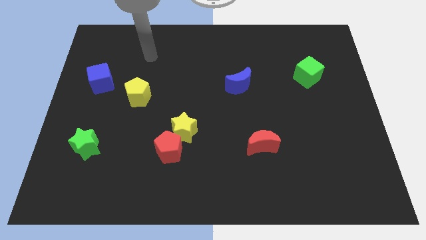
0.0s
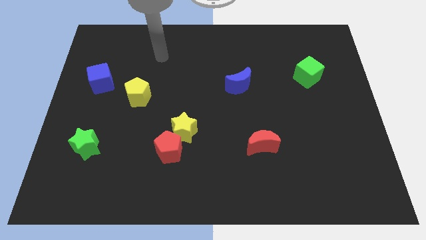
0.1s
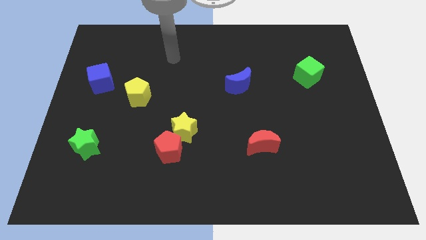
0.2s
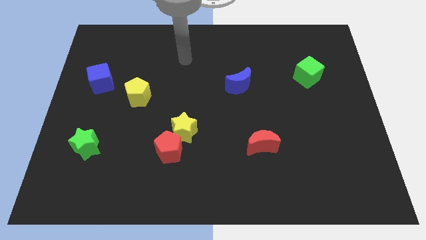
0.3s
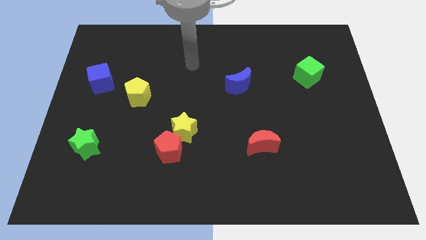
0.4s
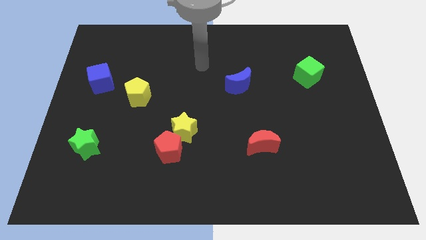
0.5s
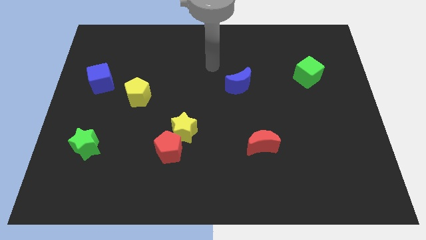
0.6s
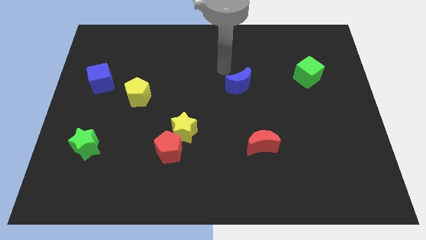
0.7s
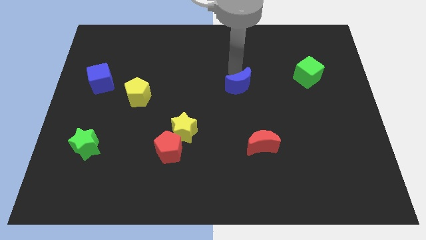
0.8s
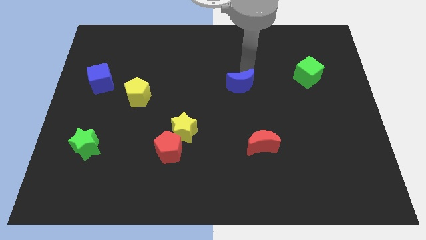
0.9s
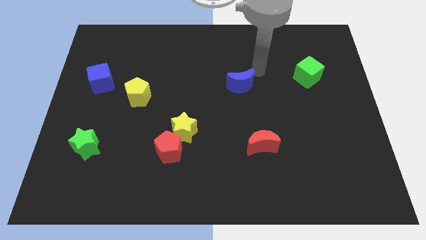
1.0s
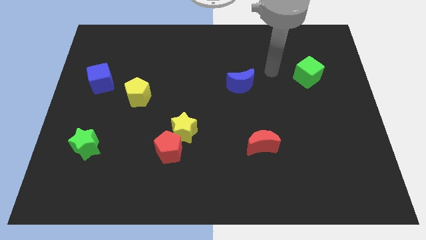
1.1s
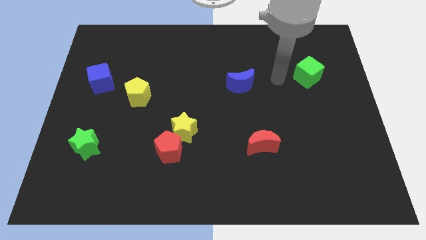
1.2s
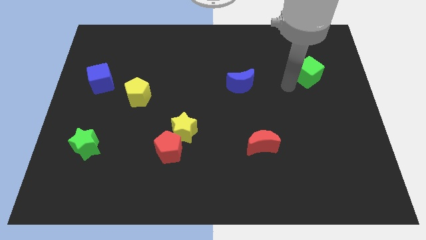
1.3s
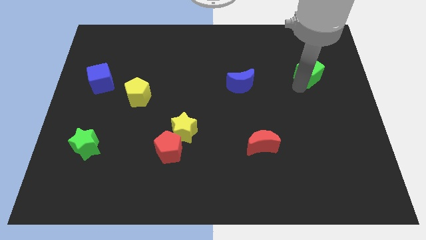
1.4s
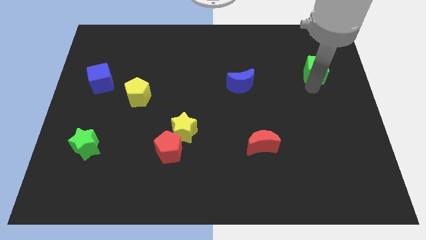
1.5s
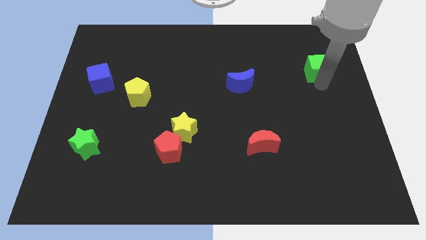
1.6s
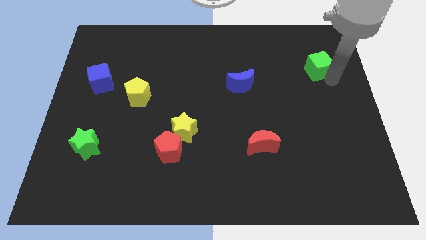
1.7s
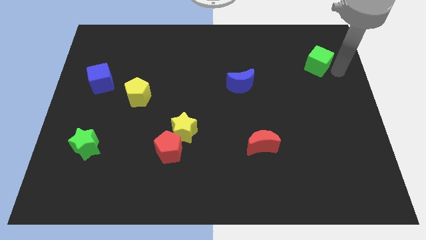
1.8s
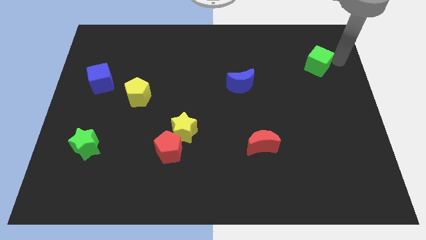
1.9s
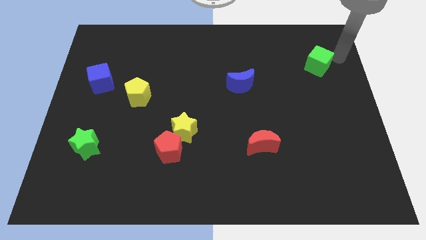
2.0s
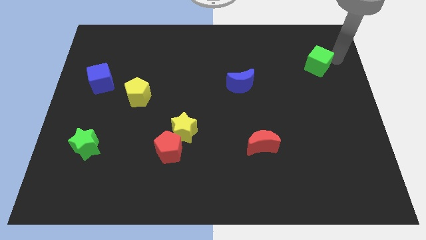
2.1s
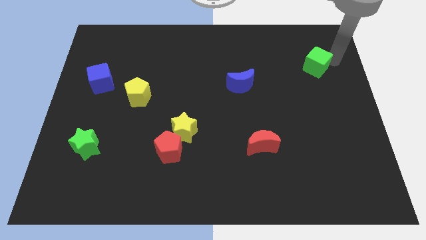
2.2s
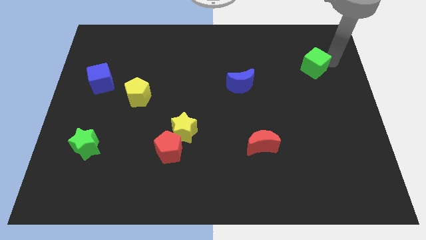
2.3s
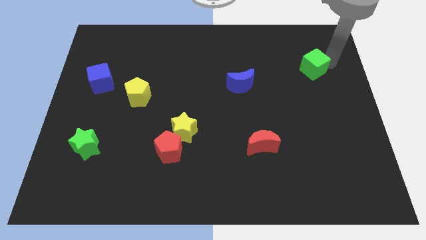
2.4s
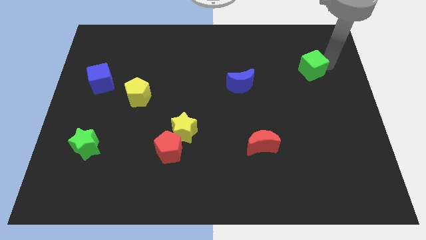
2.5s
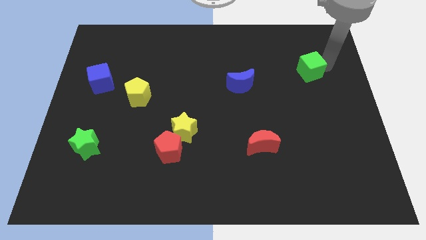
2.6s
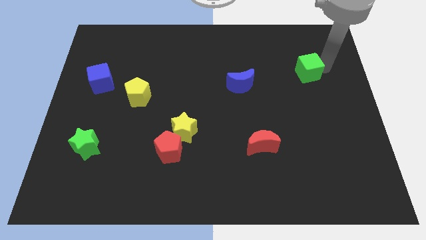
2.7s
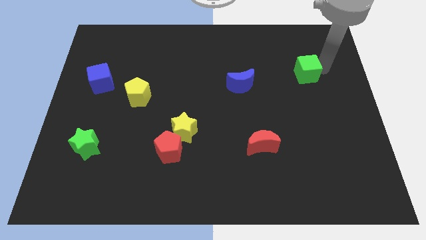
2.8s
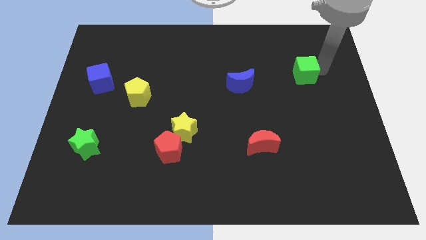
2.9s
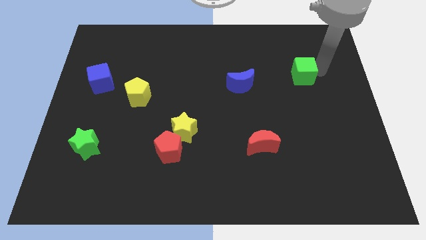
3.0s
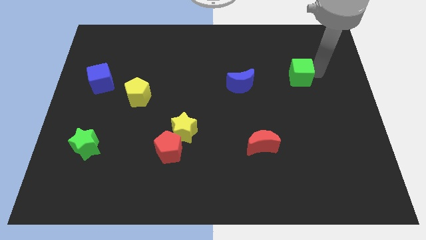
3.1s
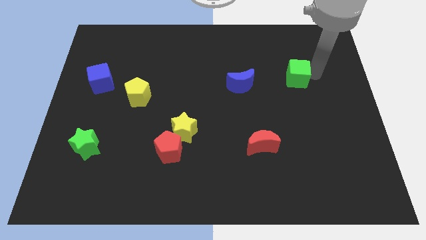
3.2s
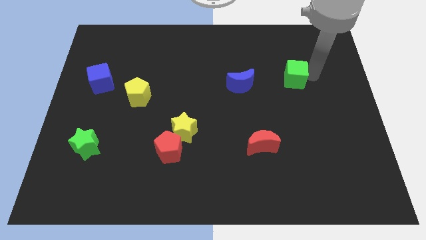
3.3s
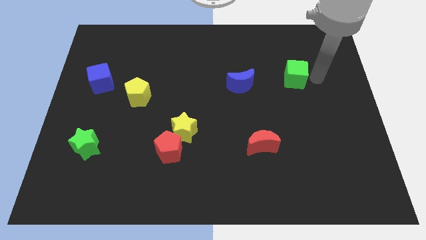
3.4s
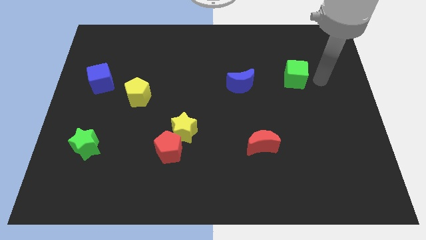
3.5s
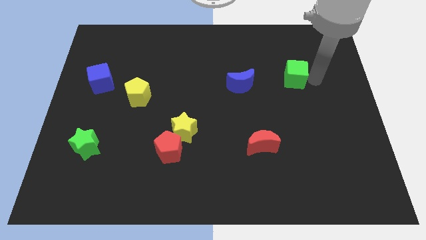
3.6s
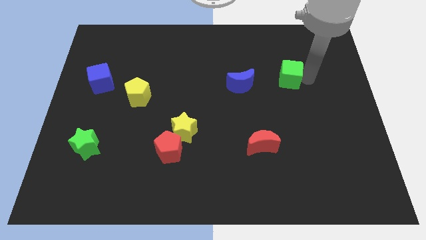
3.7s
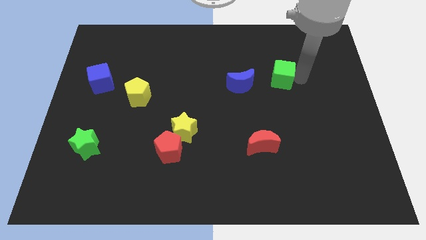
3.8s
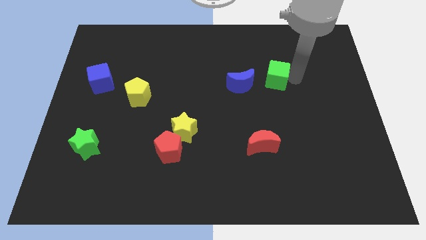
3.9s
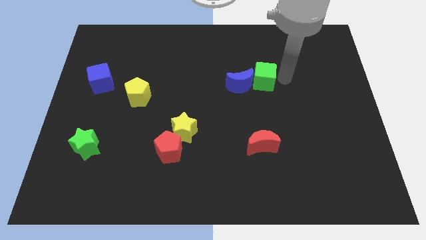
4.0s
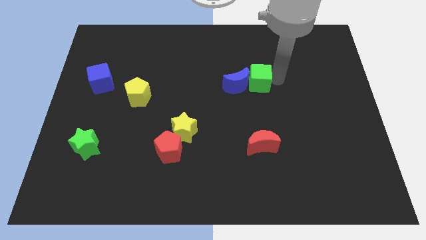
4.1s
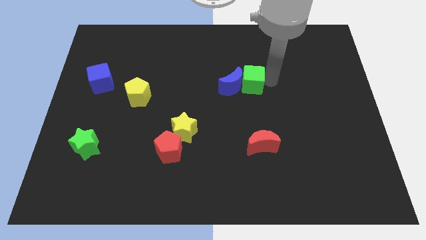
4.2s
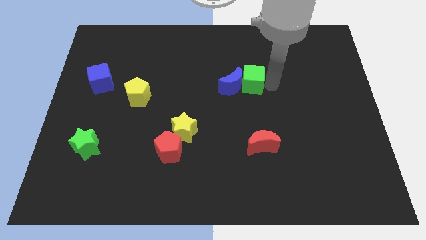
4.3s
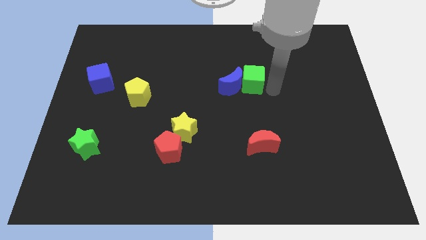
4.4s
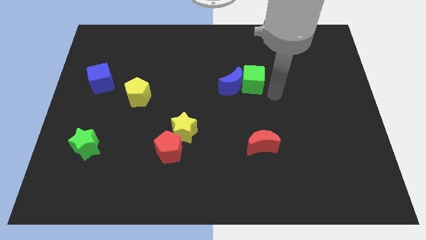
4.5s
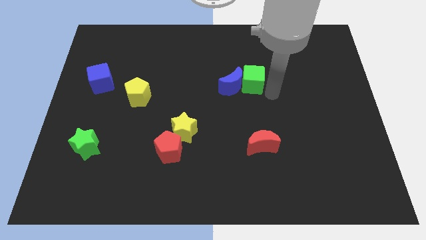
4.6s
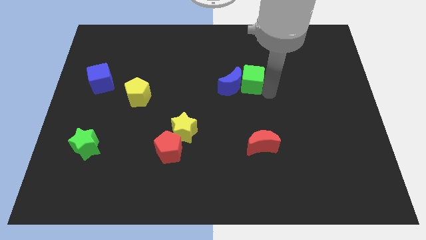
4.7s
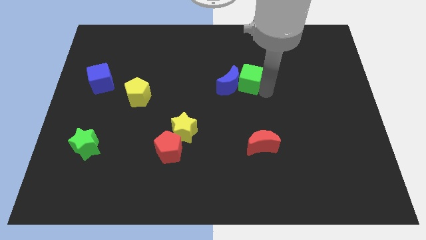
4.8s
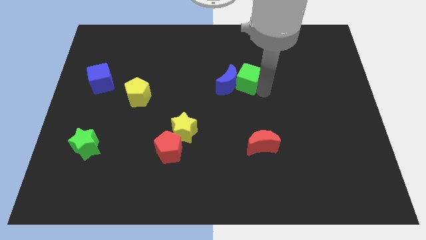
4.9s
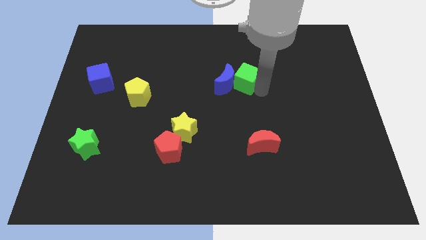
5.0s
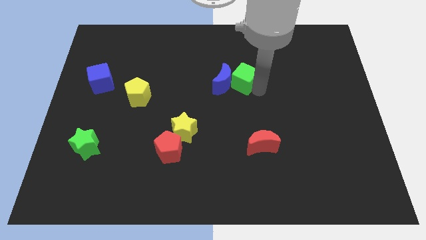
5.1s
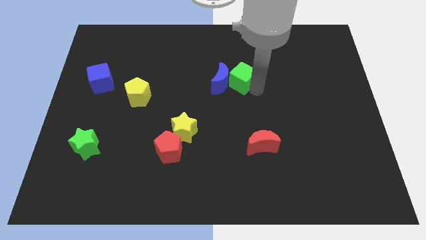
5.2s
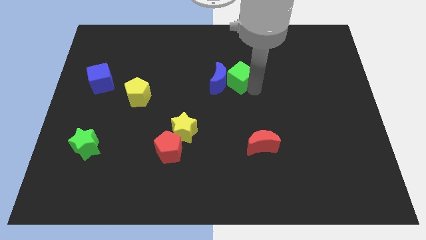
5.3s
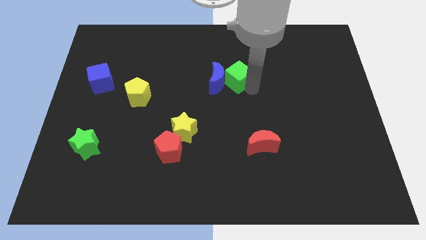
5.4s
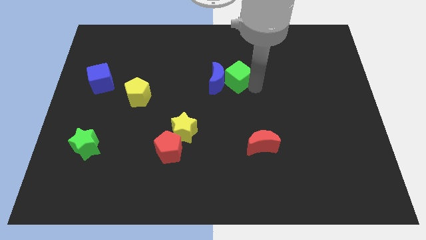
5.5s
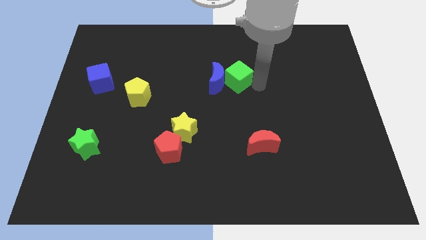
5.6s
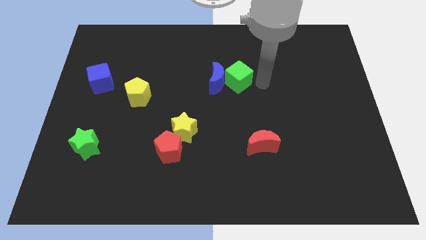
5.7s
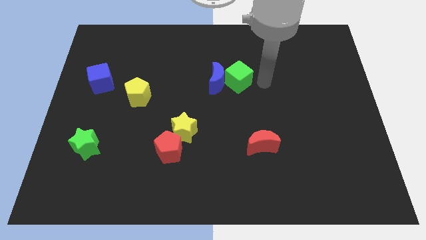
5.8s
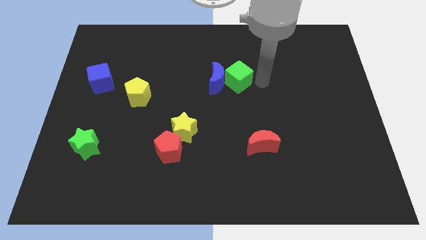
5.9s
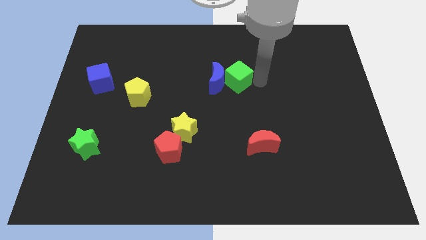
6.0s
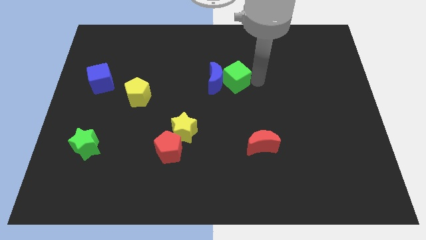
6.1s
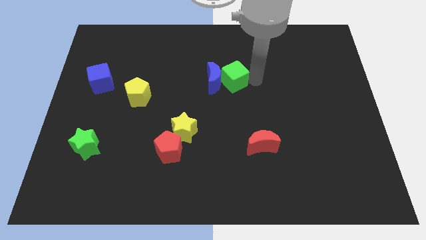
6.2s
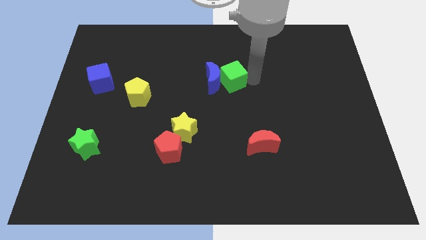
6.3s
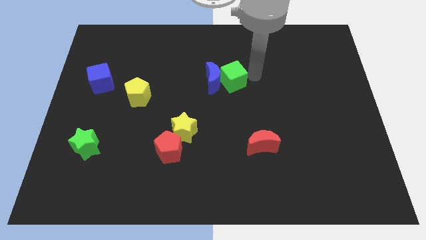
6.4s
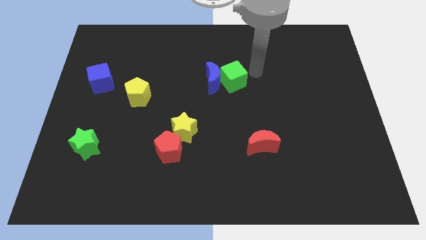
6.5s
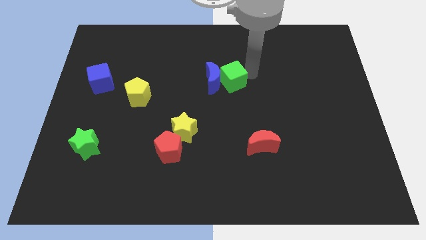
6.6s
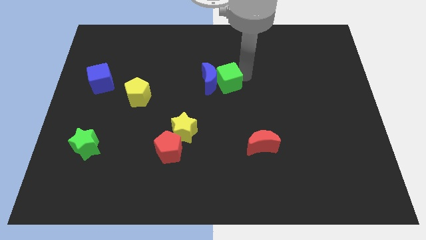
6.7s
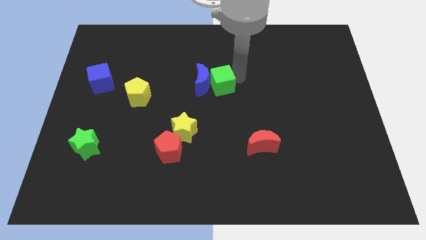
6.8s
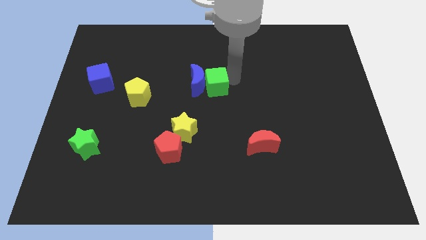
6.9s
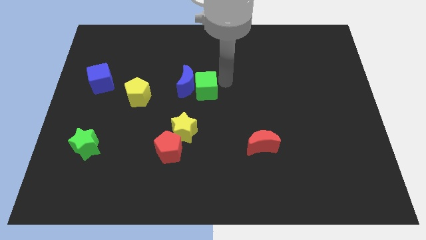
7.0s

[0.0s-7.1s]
slide the green cube to the top side of the yellow star
